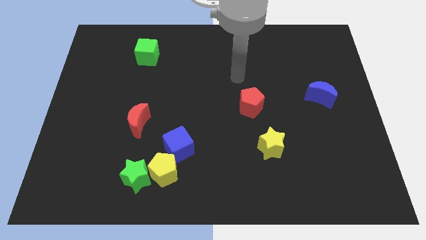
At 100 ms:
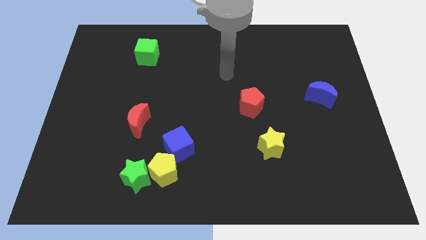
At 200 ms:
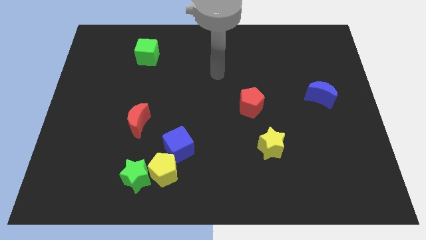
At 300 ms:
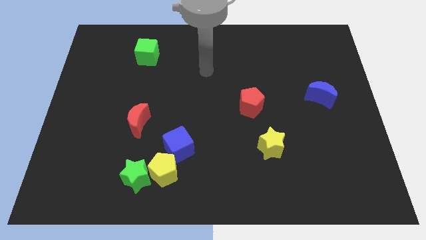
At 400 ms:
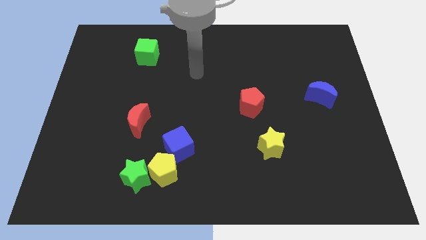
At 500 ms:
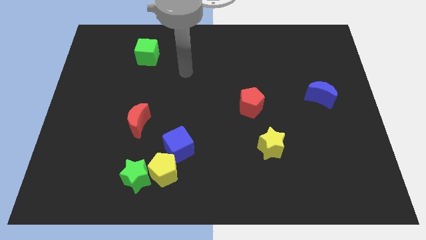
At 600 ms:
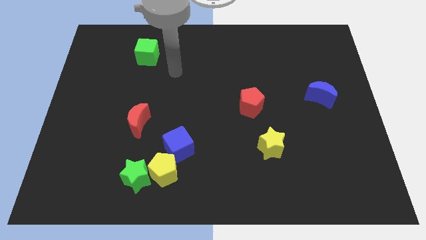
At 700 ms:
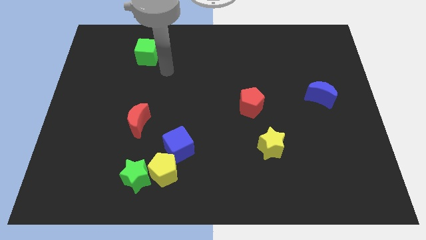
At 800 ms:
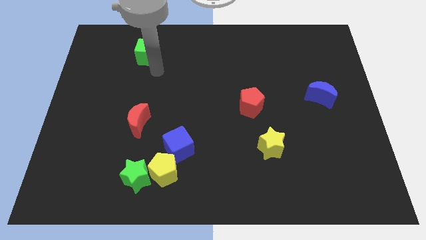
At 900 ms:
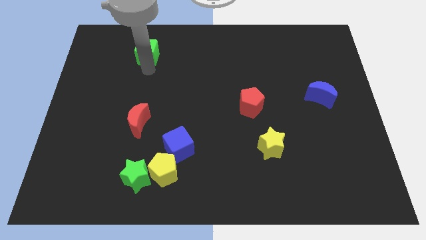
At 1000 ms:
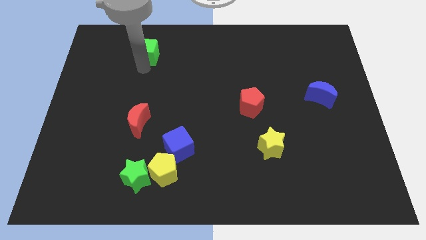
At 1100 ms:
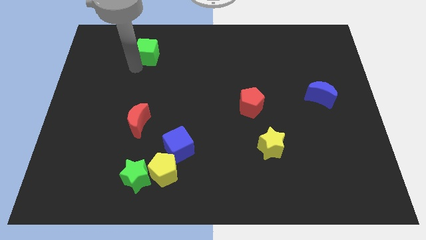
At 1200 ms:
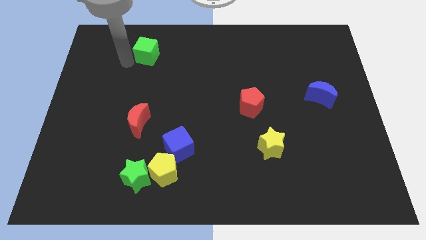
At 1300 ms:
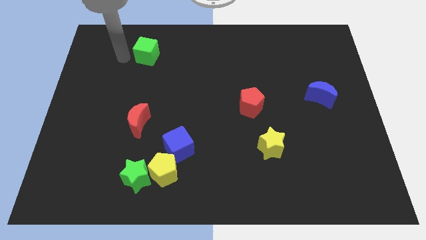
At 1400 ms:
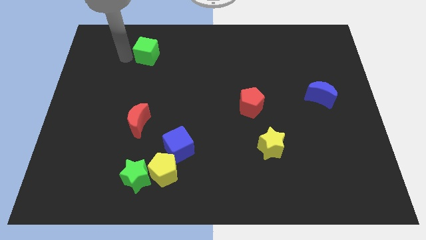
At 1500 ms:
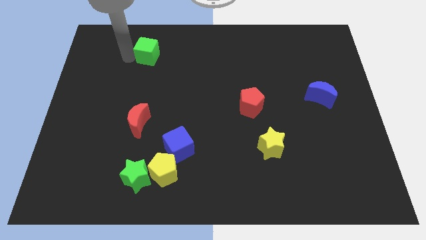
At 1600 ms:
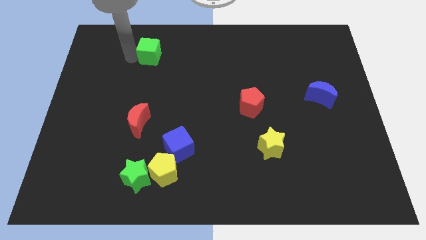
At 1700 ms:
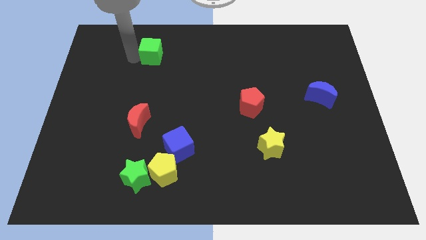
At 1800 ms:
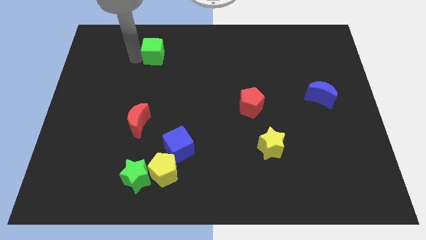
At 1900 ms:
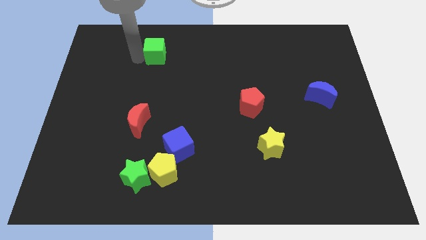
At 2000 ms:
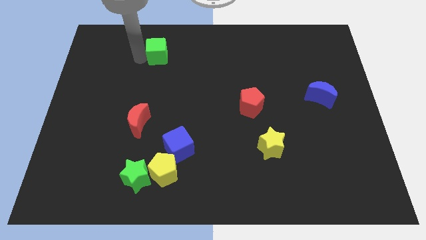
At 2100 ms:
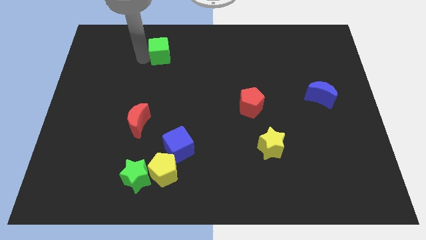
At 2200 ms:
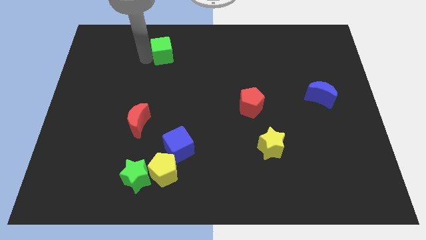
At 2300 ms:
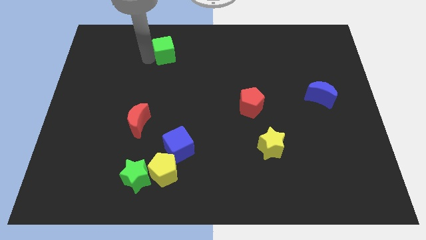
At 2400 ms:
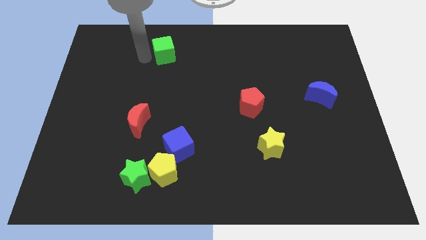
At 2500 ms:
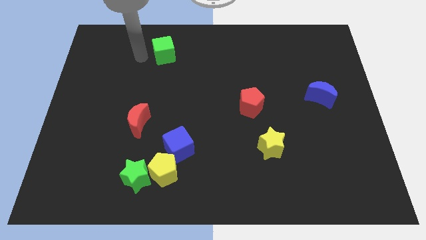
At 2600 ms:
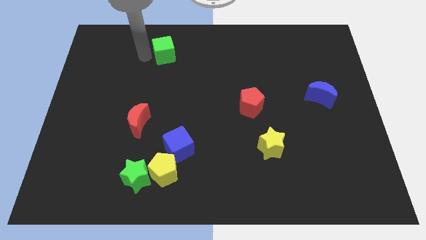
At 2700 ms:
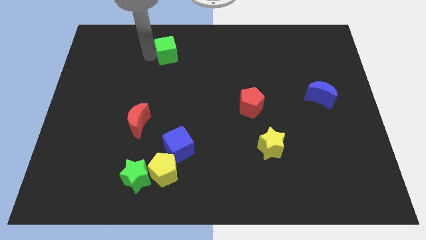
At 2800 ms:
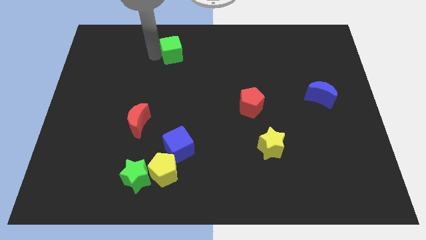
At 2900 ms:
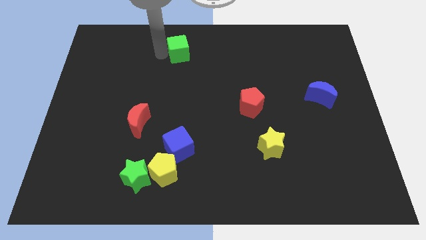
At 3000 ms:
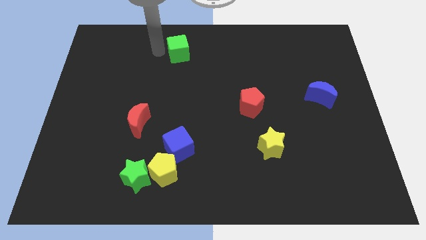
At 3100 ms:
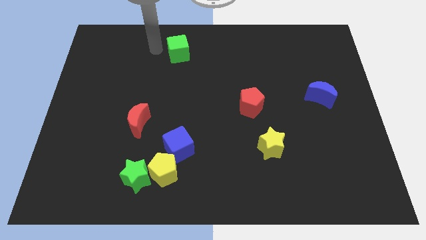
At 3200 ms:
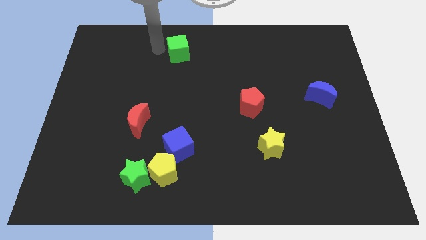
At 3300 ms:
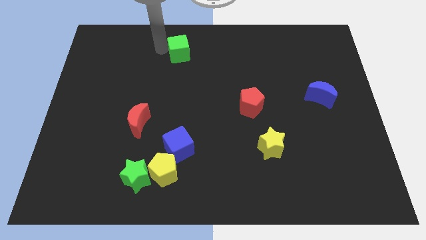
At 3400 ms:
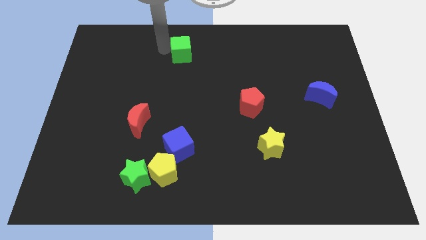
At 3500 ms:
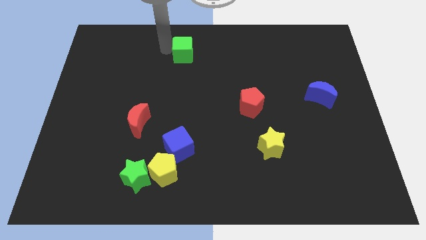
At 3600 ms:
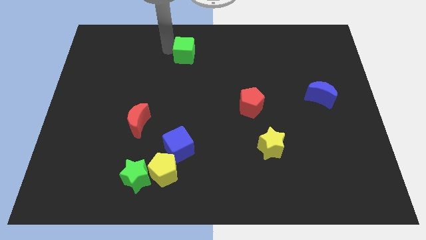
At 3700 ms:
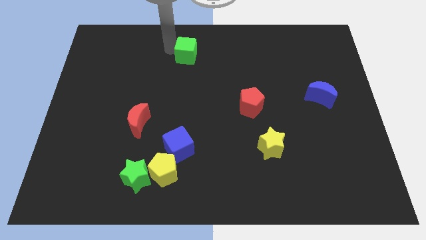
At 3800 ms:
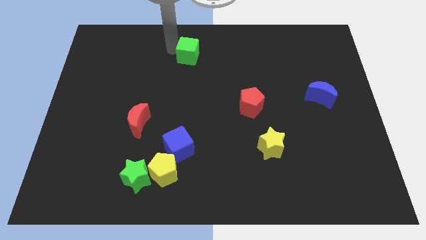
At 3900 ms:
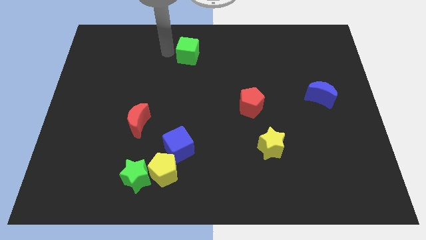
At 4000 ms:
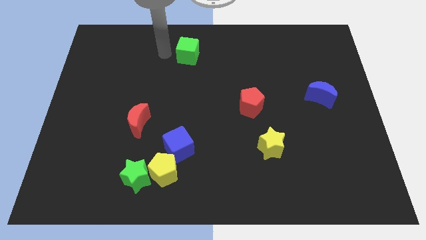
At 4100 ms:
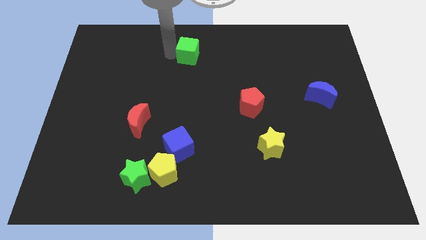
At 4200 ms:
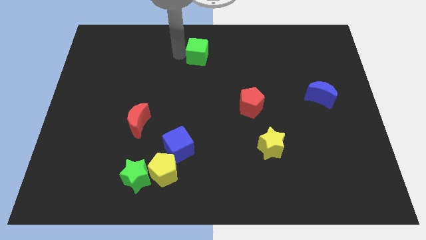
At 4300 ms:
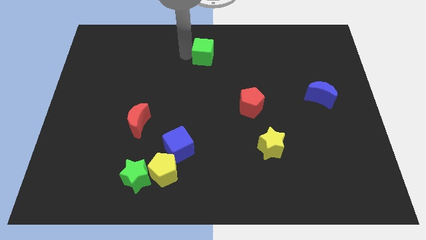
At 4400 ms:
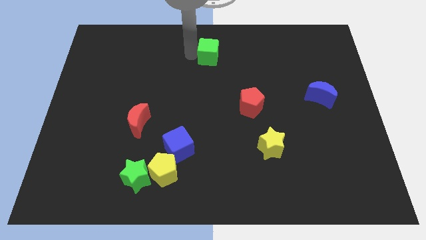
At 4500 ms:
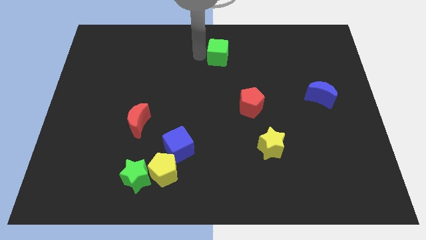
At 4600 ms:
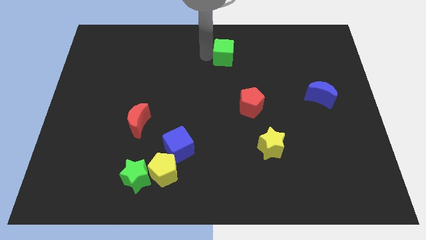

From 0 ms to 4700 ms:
push the green cube right

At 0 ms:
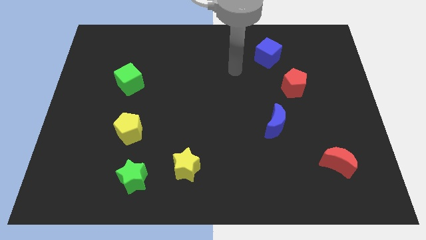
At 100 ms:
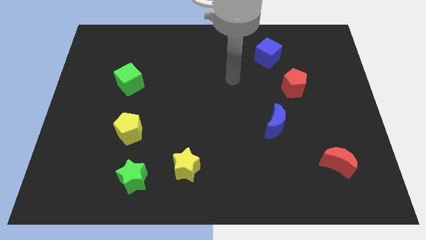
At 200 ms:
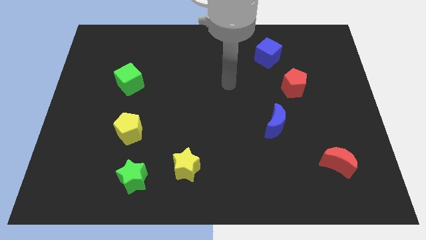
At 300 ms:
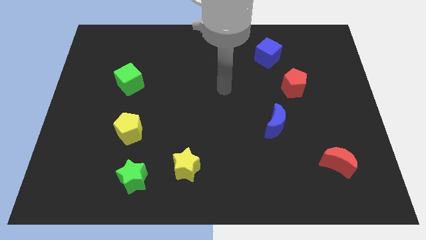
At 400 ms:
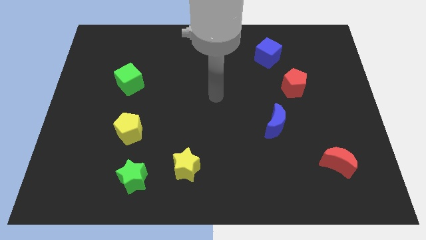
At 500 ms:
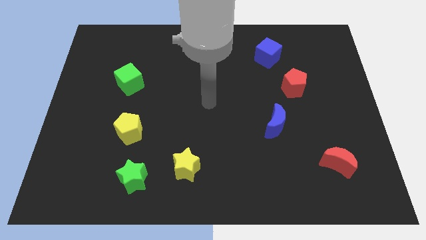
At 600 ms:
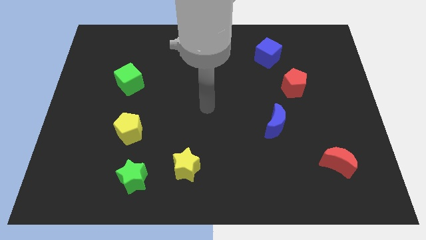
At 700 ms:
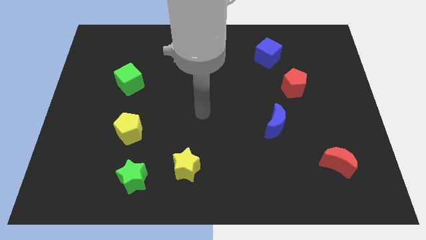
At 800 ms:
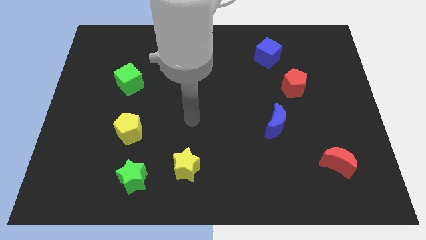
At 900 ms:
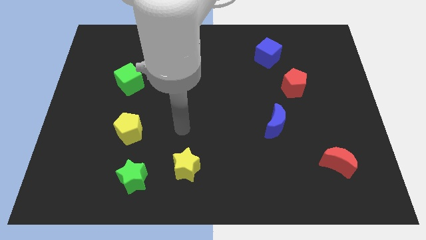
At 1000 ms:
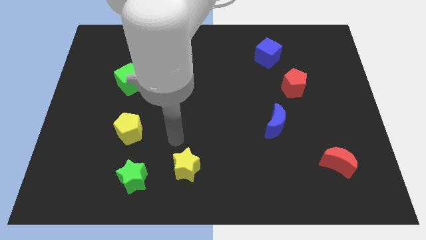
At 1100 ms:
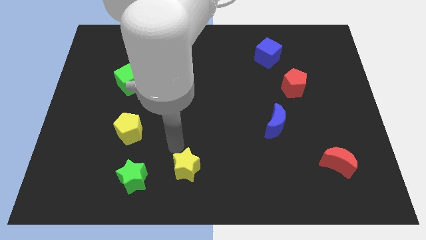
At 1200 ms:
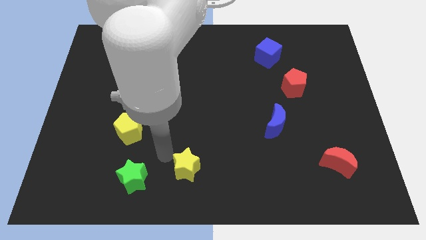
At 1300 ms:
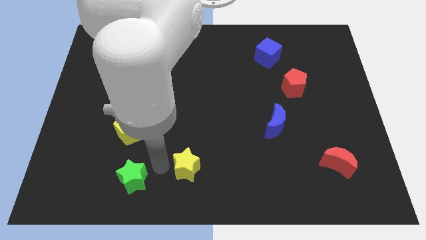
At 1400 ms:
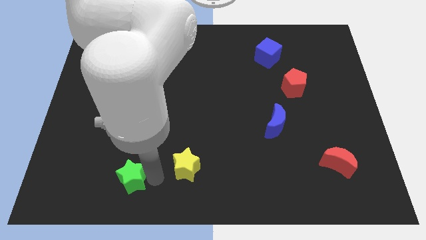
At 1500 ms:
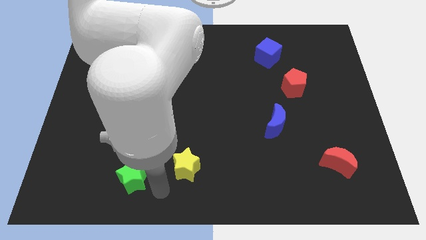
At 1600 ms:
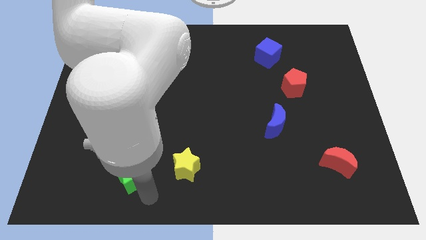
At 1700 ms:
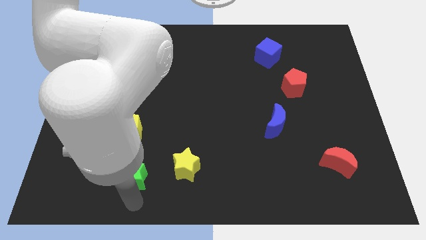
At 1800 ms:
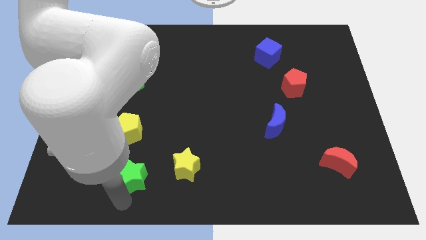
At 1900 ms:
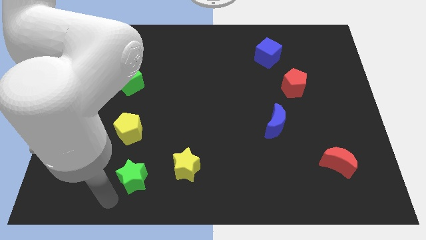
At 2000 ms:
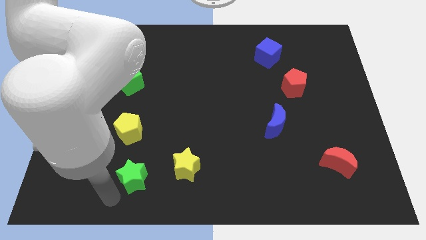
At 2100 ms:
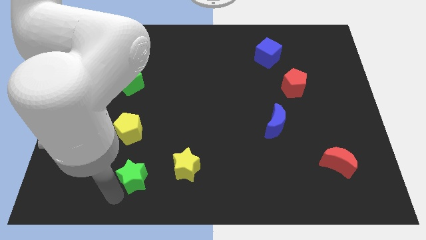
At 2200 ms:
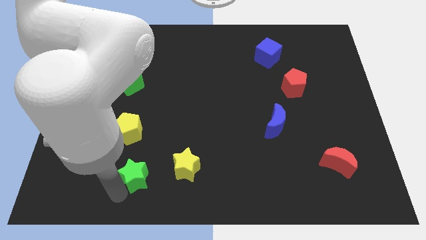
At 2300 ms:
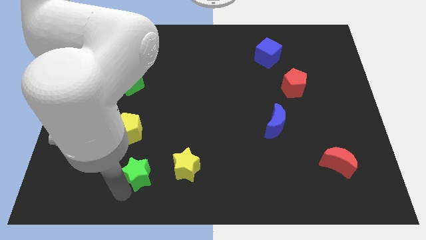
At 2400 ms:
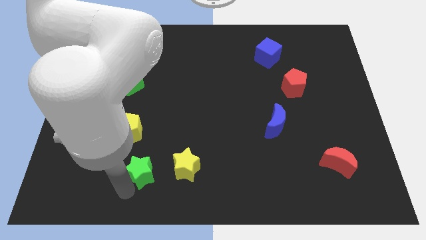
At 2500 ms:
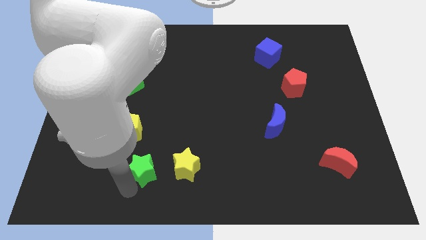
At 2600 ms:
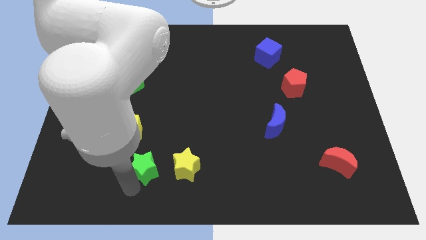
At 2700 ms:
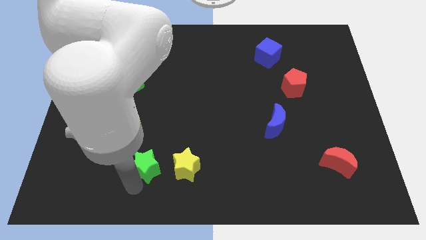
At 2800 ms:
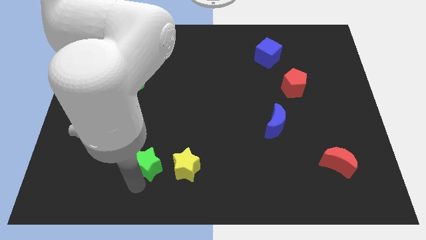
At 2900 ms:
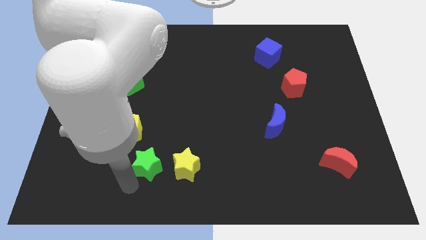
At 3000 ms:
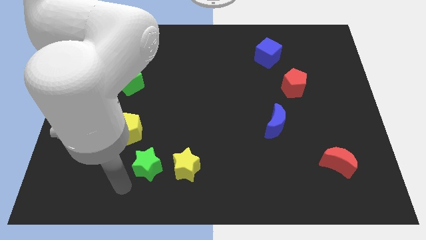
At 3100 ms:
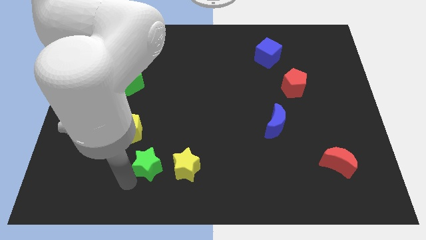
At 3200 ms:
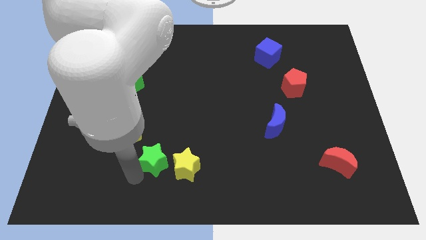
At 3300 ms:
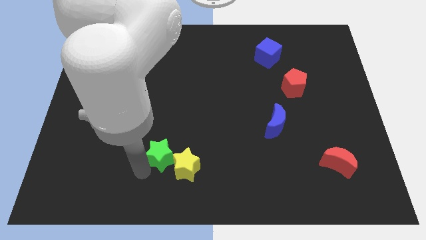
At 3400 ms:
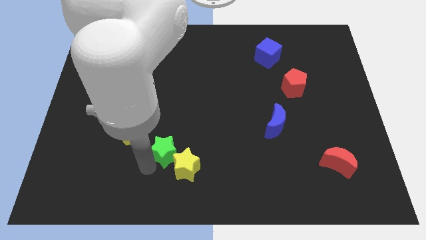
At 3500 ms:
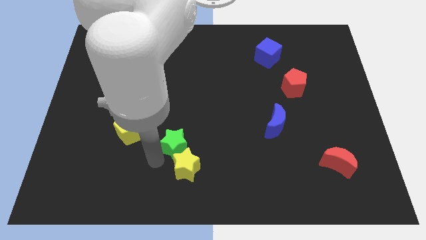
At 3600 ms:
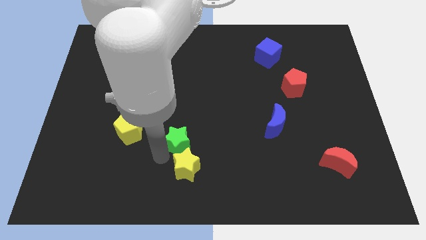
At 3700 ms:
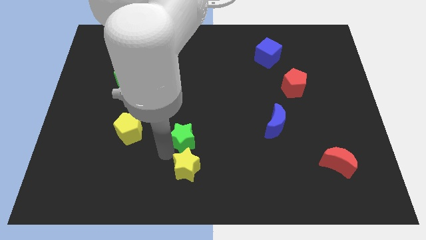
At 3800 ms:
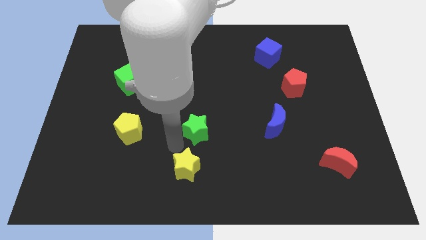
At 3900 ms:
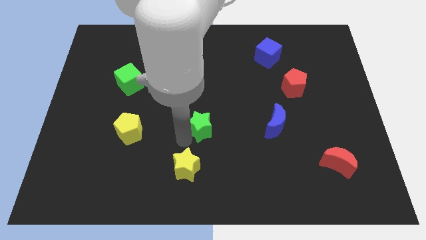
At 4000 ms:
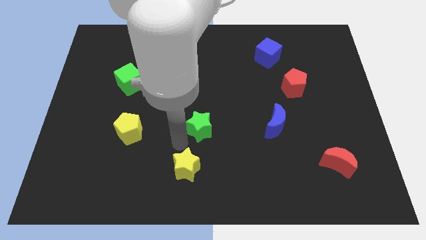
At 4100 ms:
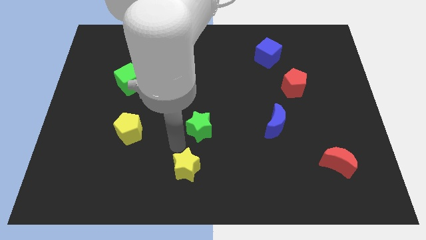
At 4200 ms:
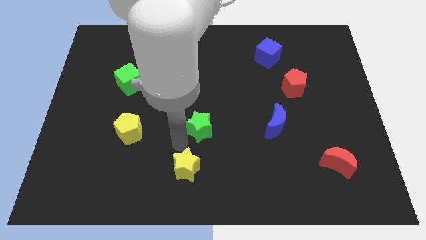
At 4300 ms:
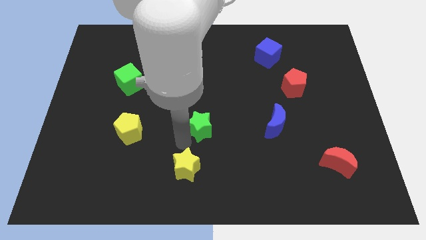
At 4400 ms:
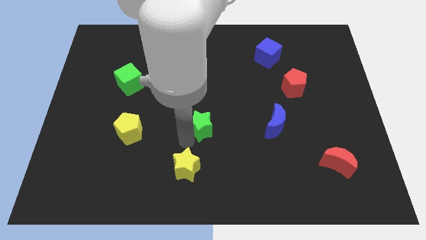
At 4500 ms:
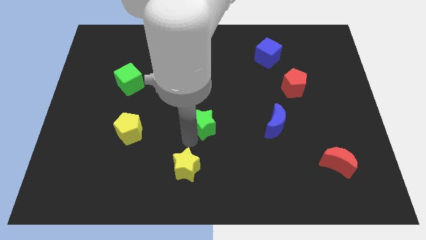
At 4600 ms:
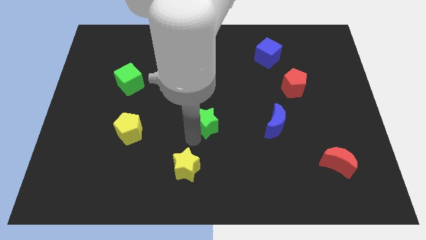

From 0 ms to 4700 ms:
slide the green star upwards and to the right diagonally
